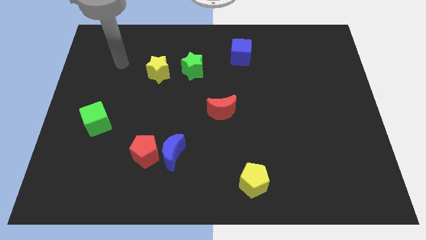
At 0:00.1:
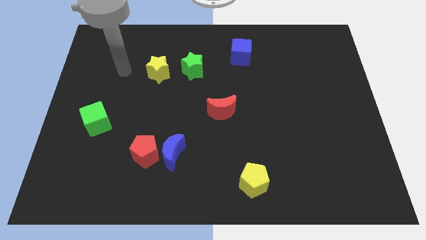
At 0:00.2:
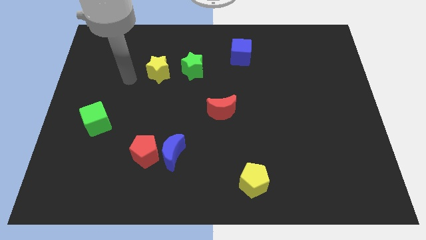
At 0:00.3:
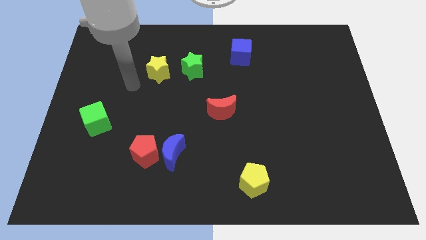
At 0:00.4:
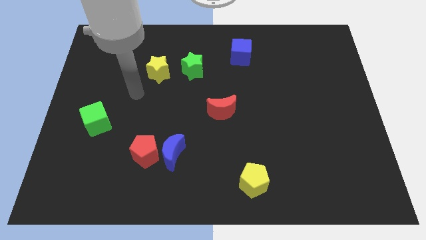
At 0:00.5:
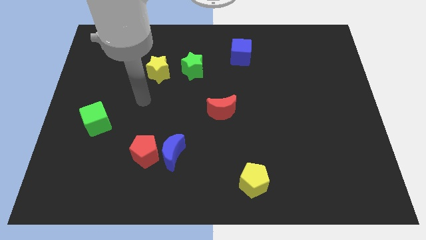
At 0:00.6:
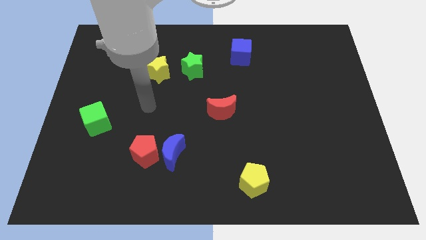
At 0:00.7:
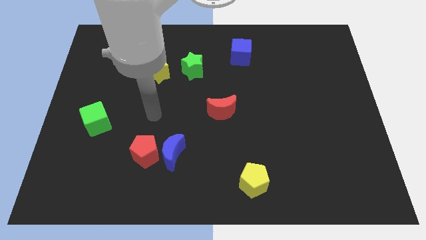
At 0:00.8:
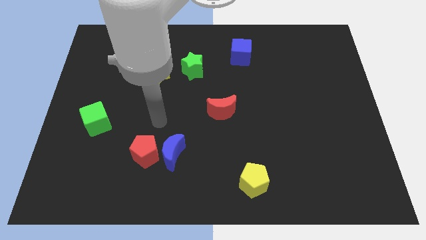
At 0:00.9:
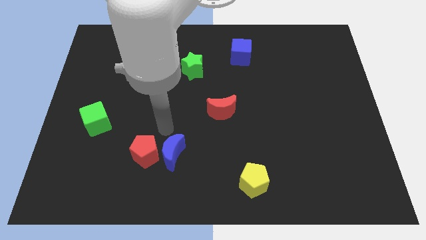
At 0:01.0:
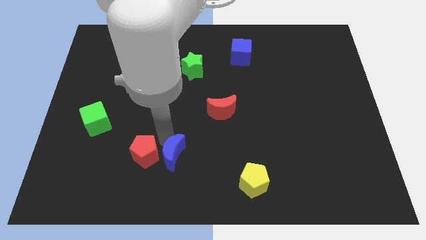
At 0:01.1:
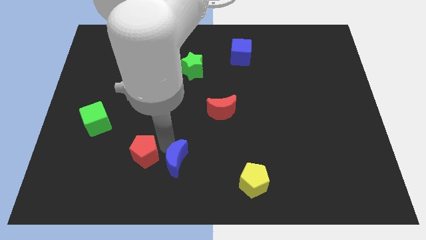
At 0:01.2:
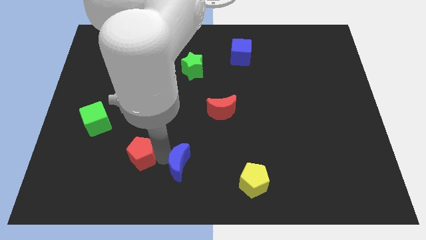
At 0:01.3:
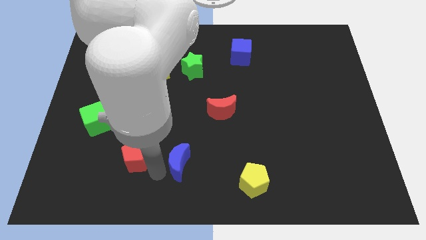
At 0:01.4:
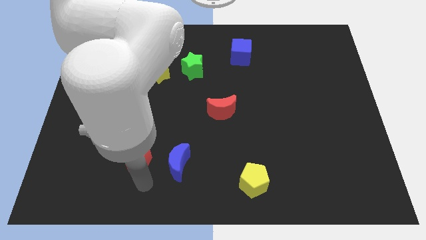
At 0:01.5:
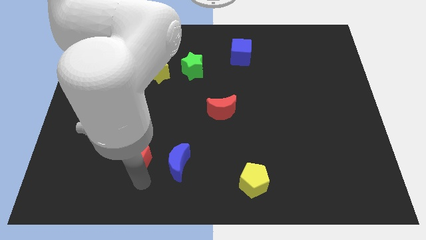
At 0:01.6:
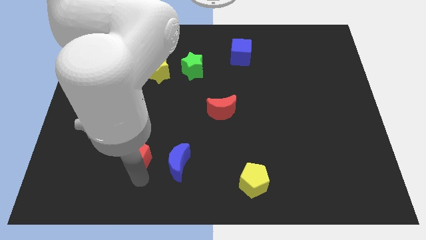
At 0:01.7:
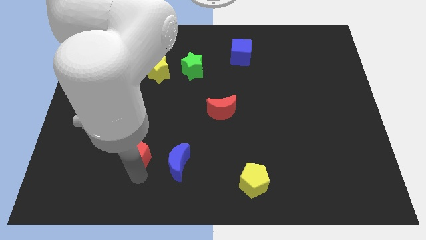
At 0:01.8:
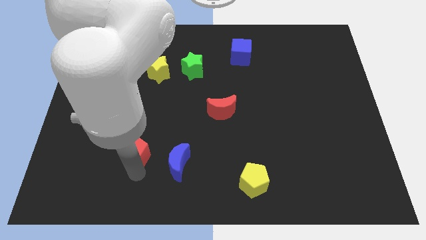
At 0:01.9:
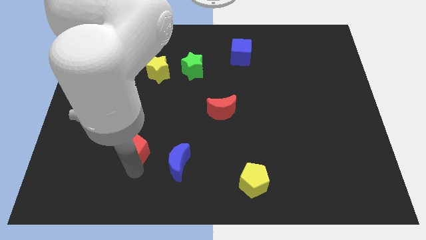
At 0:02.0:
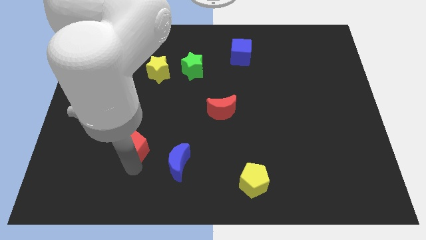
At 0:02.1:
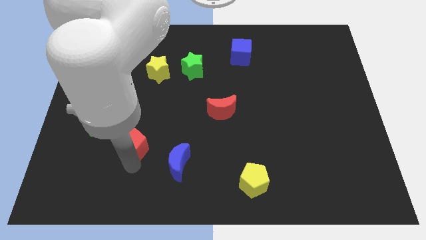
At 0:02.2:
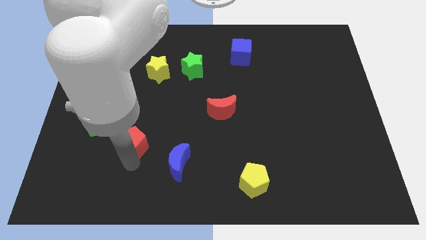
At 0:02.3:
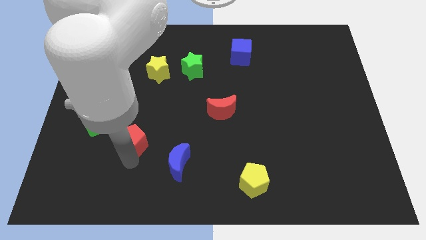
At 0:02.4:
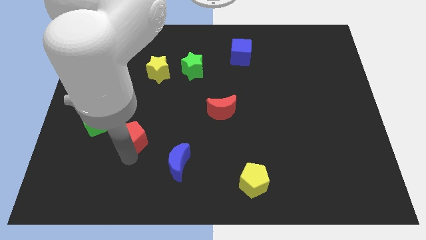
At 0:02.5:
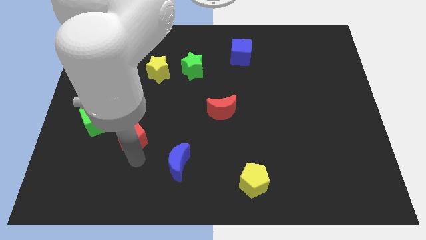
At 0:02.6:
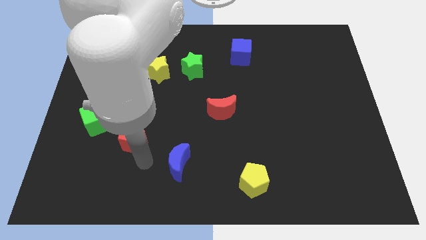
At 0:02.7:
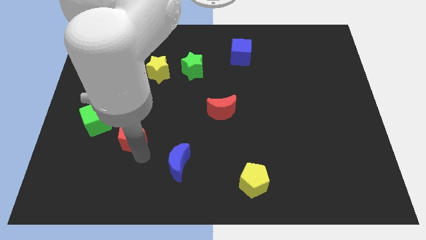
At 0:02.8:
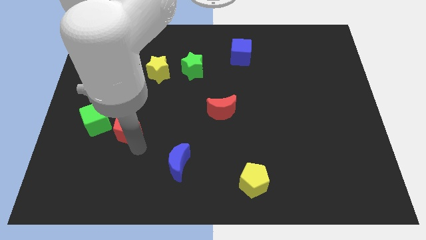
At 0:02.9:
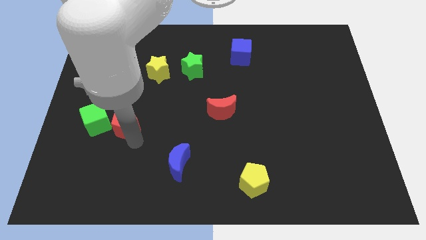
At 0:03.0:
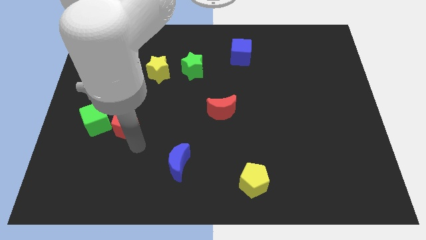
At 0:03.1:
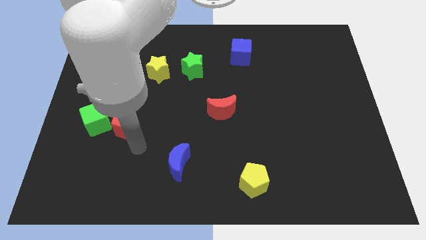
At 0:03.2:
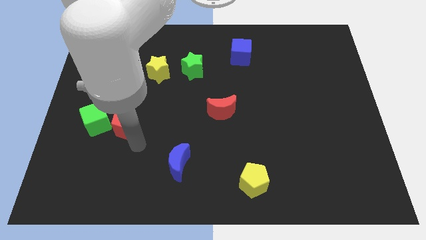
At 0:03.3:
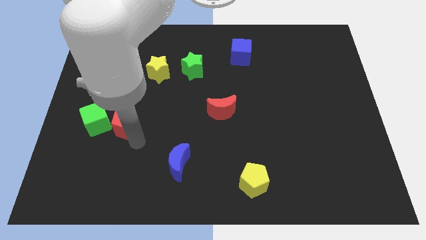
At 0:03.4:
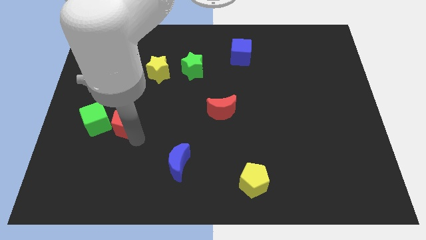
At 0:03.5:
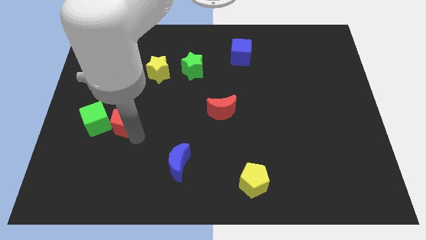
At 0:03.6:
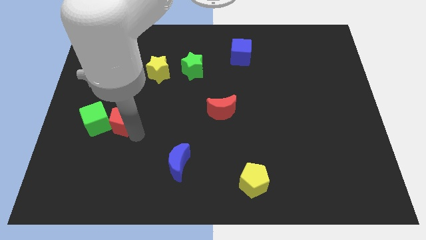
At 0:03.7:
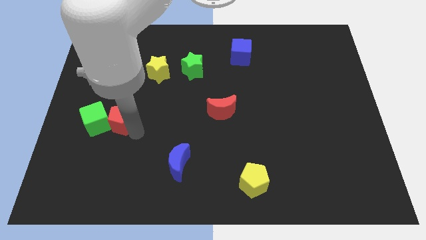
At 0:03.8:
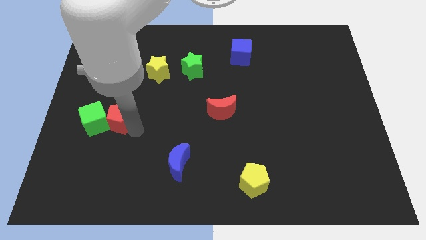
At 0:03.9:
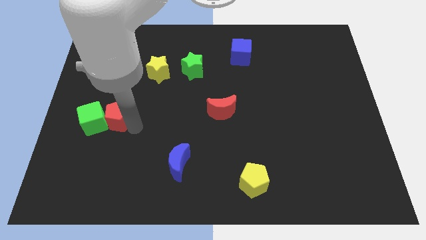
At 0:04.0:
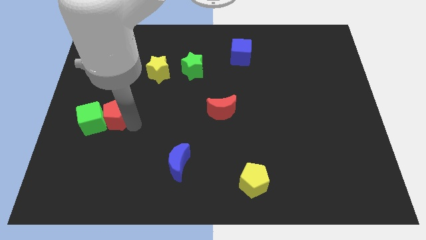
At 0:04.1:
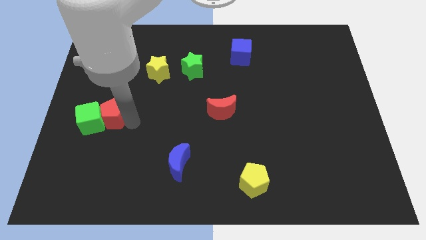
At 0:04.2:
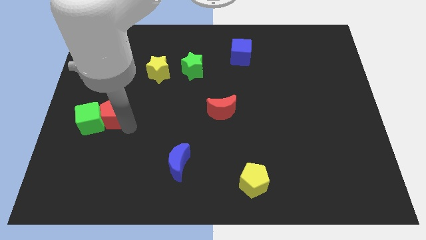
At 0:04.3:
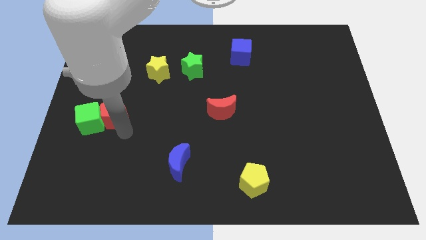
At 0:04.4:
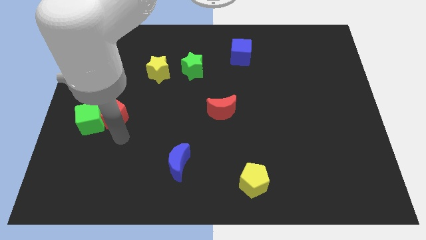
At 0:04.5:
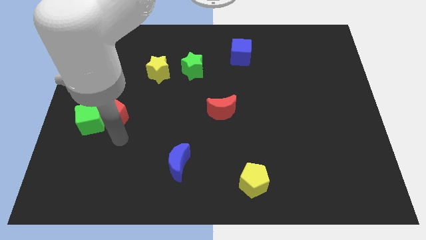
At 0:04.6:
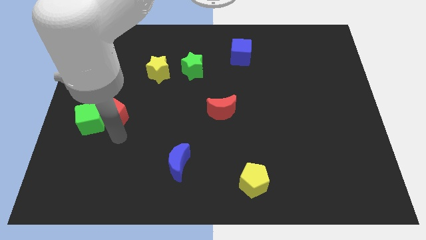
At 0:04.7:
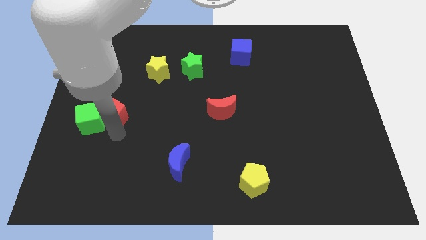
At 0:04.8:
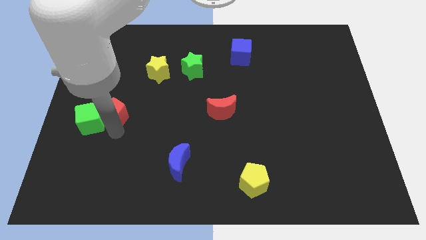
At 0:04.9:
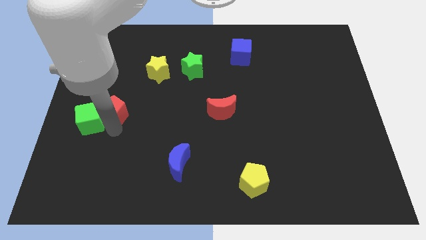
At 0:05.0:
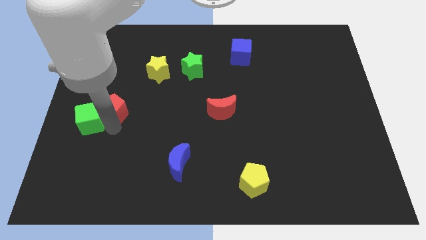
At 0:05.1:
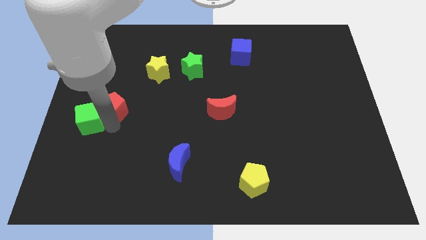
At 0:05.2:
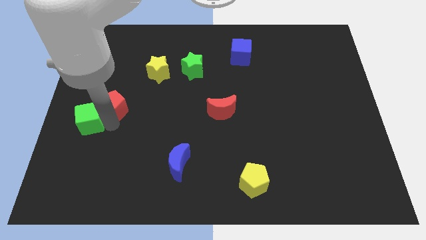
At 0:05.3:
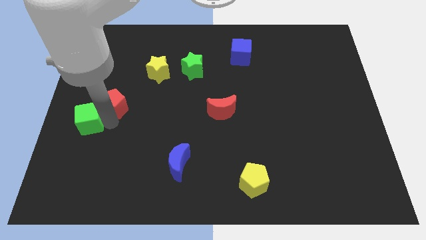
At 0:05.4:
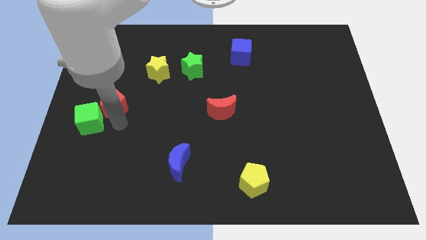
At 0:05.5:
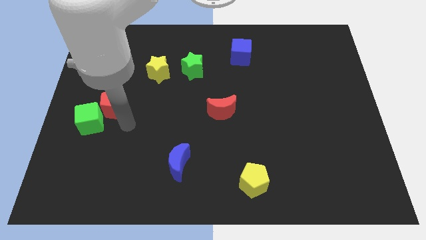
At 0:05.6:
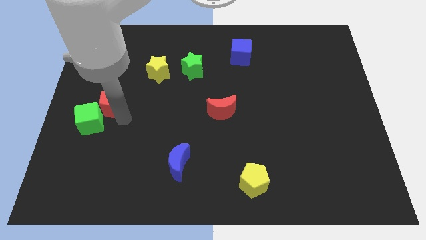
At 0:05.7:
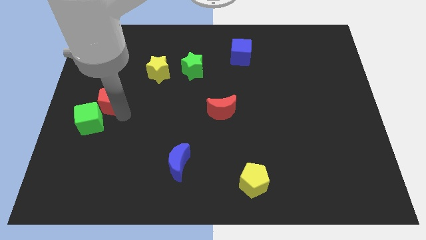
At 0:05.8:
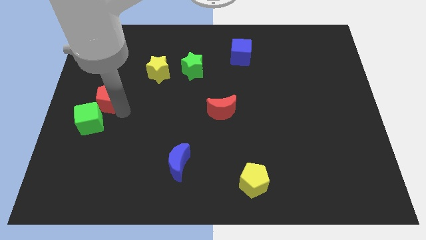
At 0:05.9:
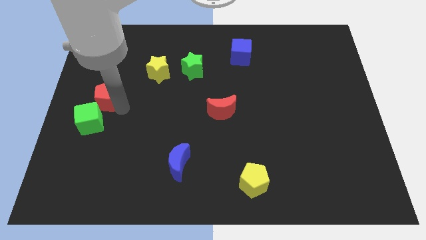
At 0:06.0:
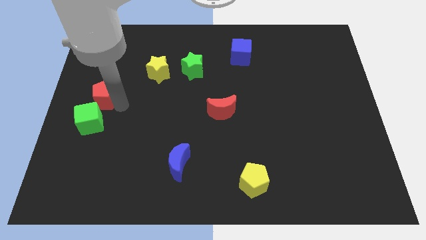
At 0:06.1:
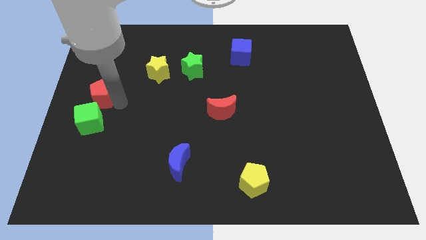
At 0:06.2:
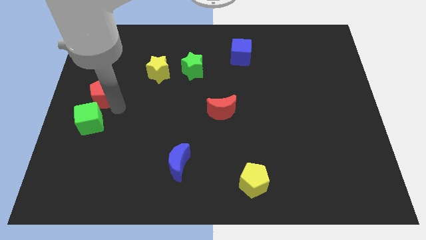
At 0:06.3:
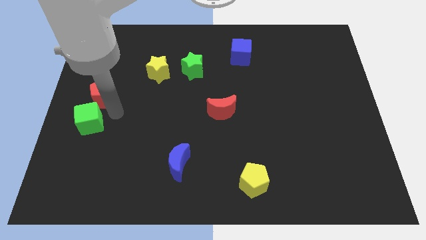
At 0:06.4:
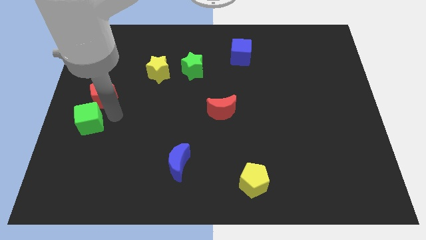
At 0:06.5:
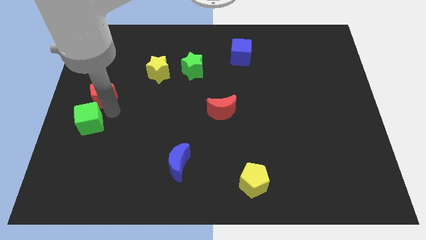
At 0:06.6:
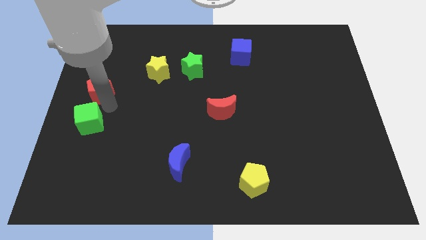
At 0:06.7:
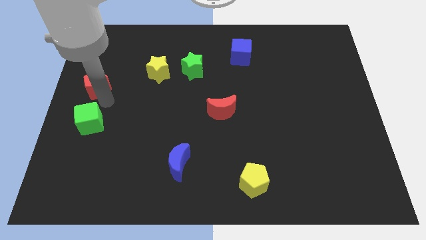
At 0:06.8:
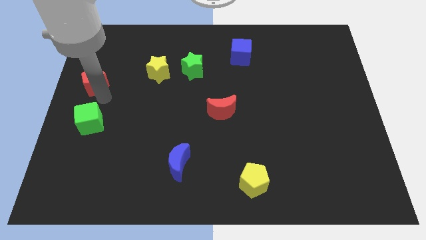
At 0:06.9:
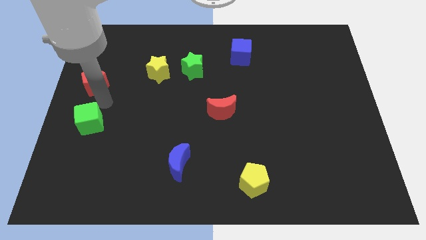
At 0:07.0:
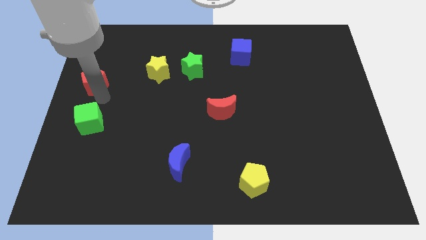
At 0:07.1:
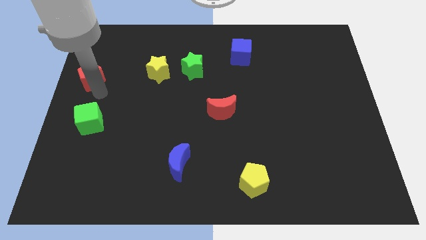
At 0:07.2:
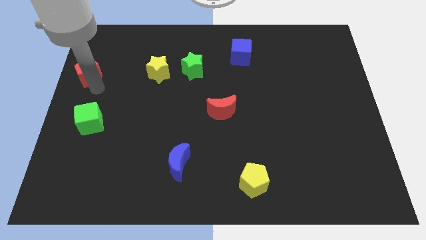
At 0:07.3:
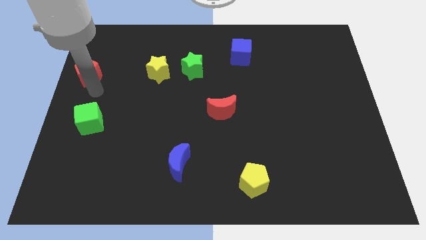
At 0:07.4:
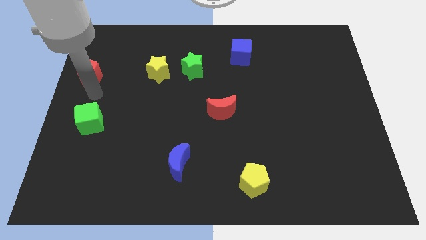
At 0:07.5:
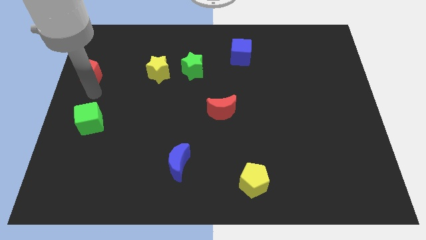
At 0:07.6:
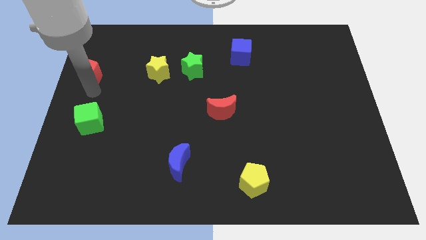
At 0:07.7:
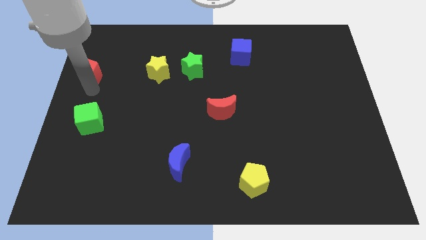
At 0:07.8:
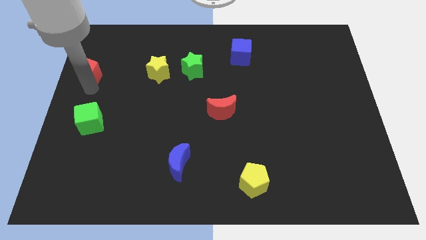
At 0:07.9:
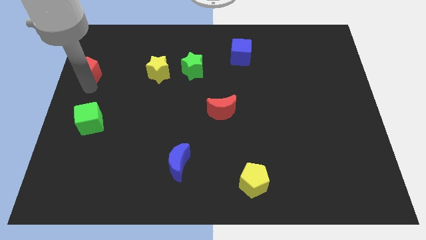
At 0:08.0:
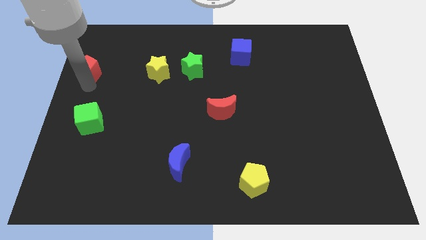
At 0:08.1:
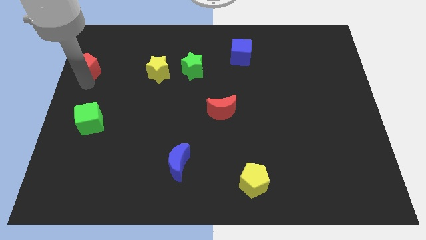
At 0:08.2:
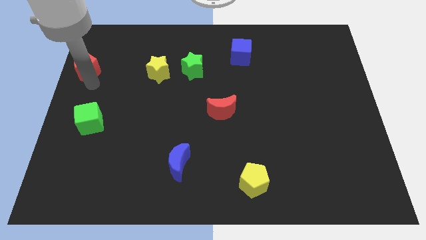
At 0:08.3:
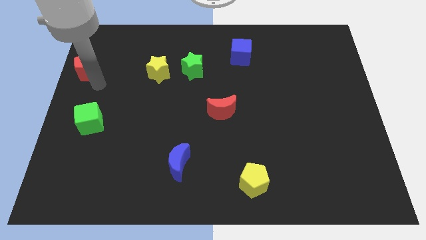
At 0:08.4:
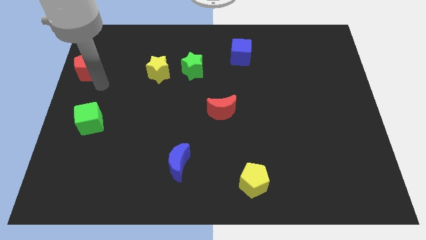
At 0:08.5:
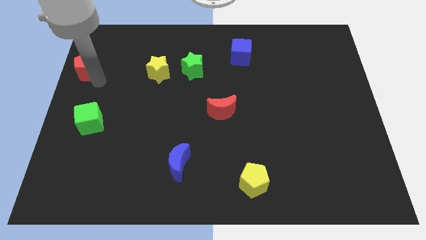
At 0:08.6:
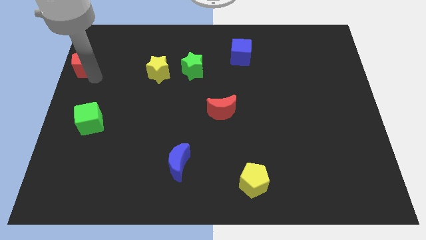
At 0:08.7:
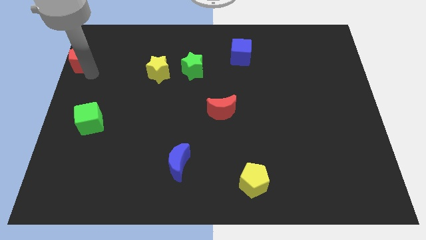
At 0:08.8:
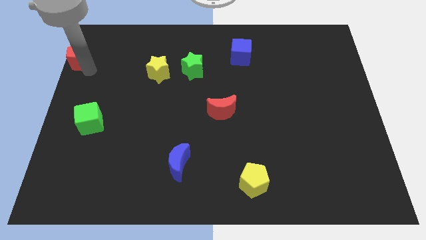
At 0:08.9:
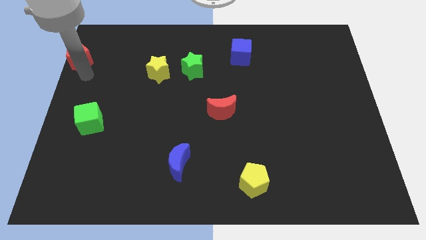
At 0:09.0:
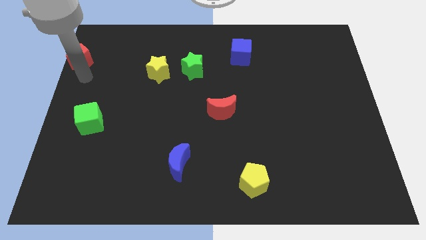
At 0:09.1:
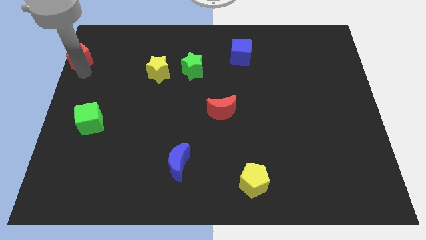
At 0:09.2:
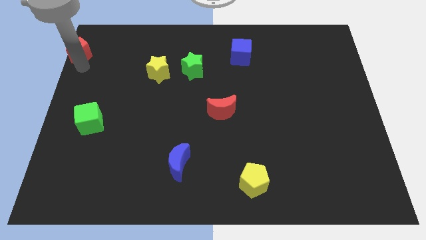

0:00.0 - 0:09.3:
slide the red pentagon to the top left
